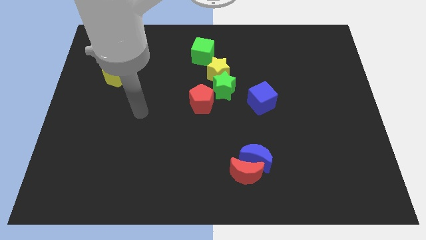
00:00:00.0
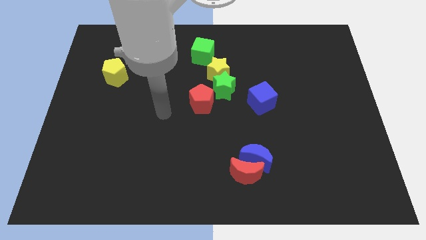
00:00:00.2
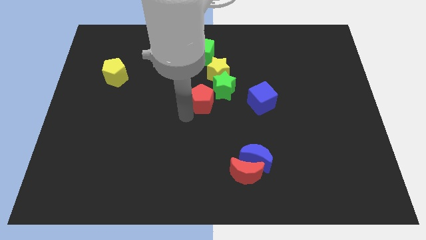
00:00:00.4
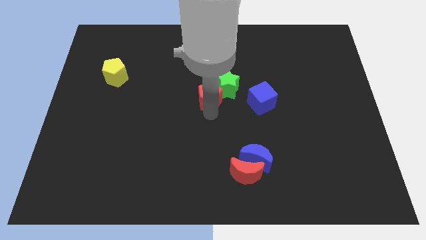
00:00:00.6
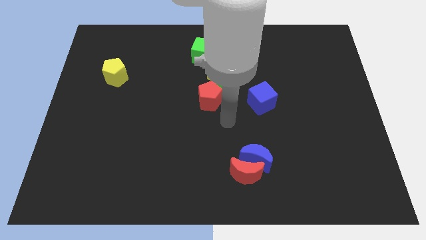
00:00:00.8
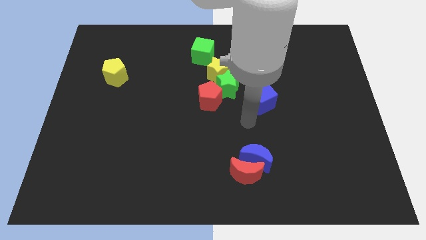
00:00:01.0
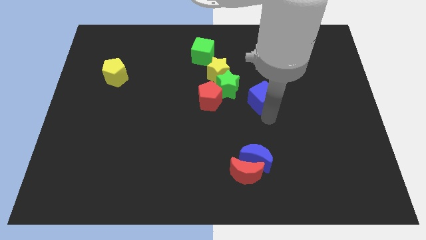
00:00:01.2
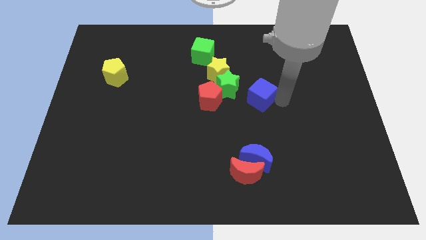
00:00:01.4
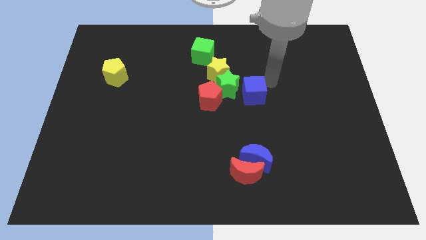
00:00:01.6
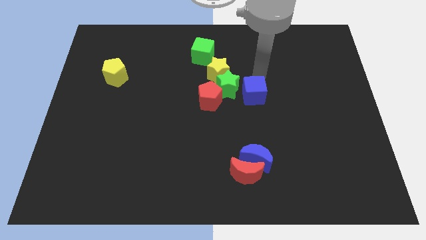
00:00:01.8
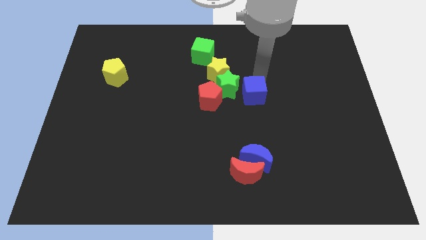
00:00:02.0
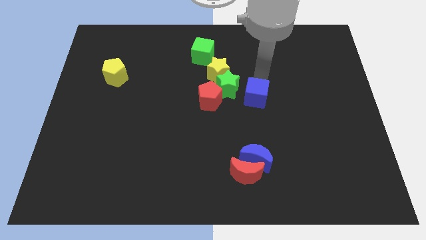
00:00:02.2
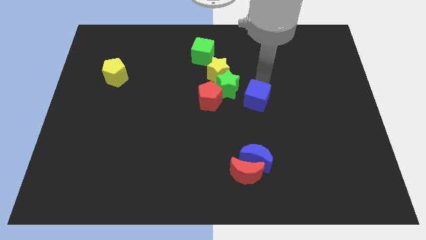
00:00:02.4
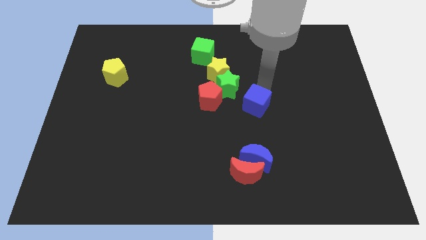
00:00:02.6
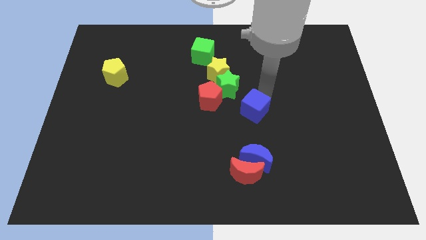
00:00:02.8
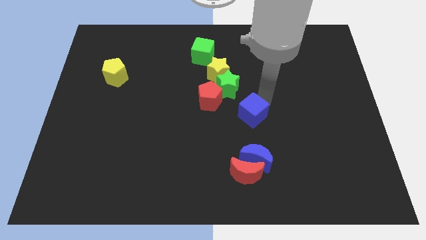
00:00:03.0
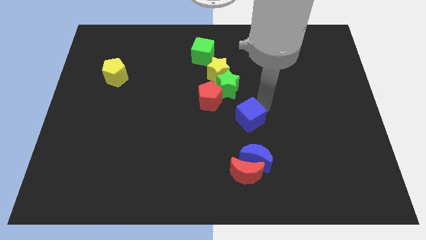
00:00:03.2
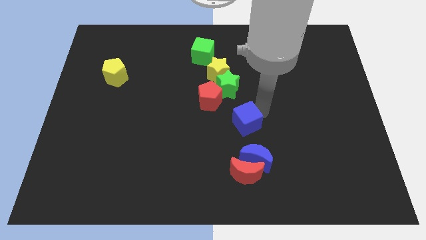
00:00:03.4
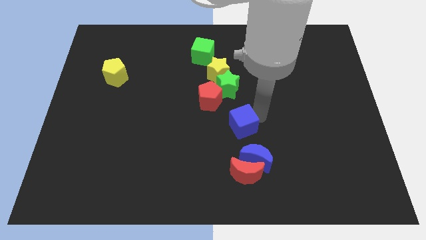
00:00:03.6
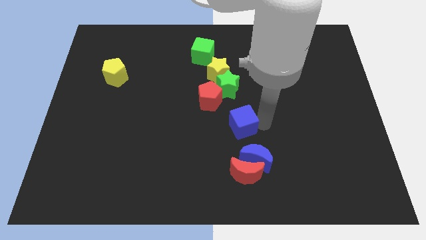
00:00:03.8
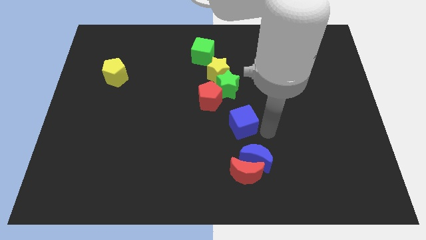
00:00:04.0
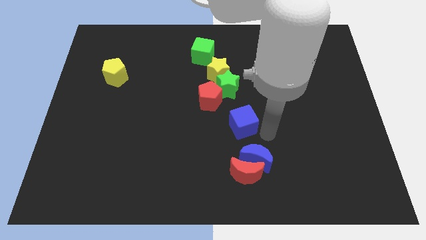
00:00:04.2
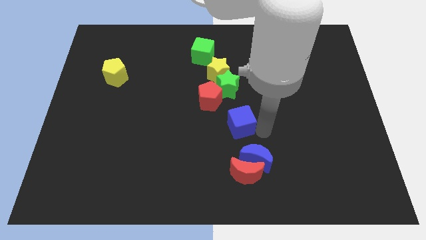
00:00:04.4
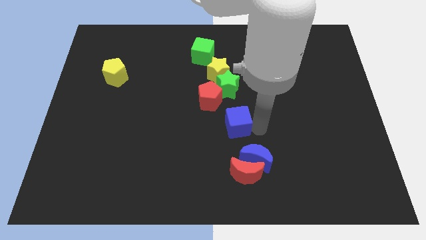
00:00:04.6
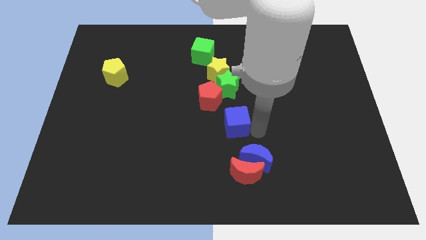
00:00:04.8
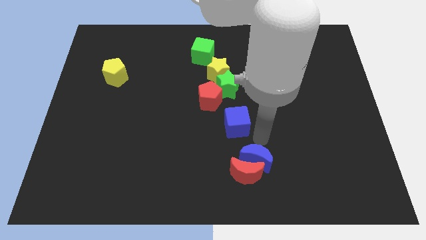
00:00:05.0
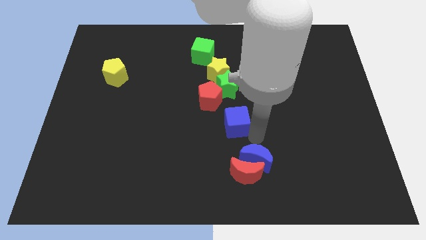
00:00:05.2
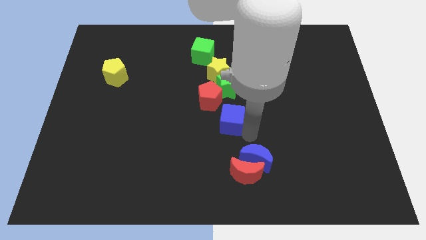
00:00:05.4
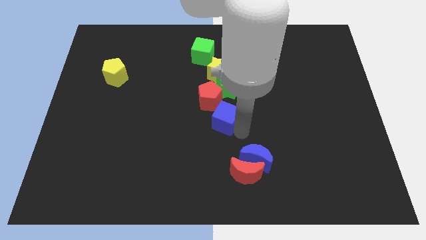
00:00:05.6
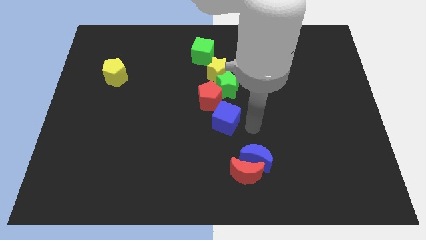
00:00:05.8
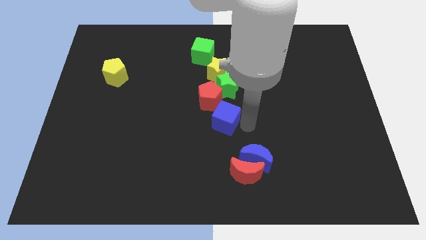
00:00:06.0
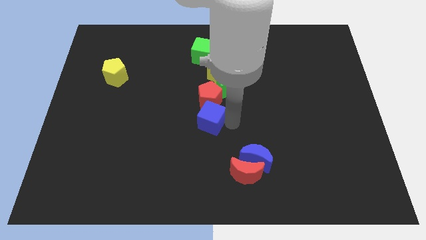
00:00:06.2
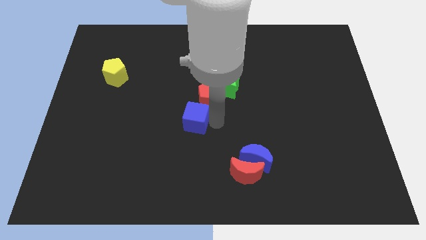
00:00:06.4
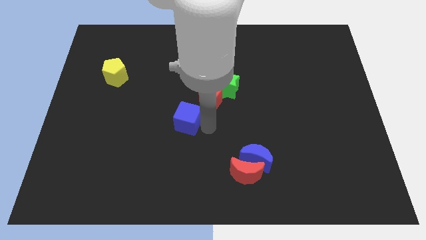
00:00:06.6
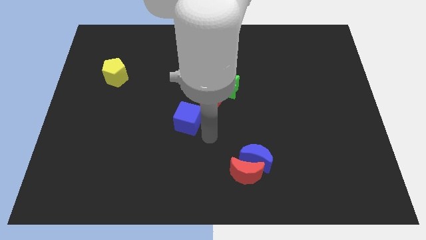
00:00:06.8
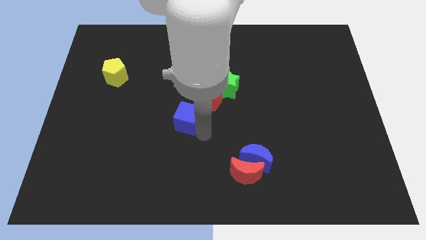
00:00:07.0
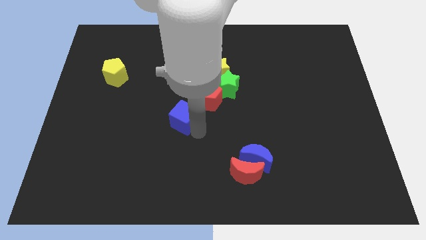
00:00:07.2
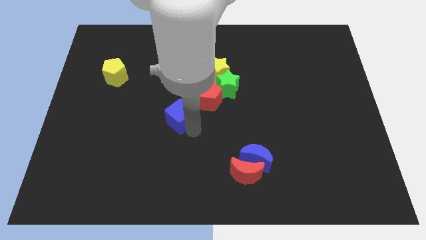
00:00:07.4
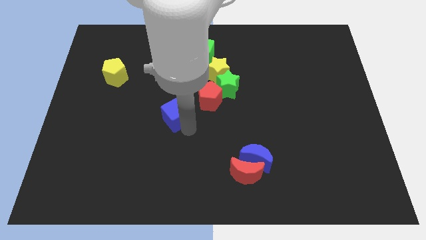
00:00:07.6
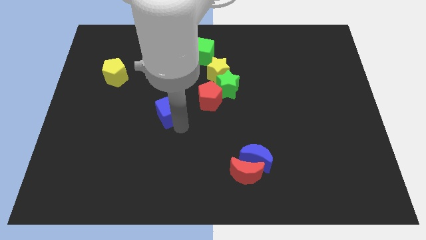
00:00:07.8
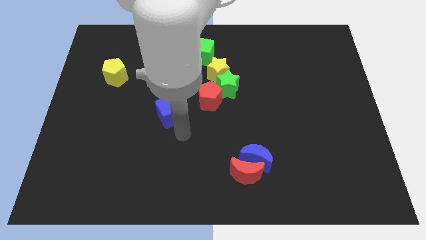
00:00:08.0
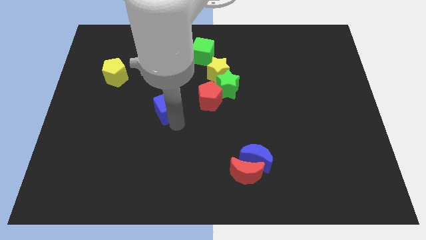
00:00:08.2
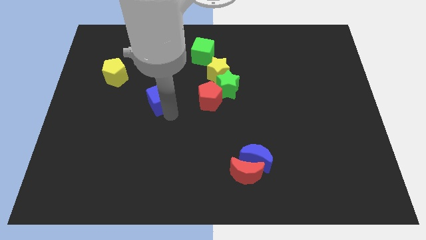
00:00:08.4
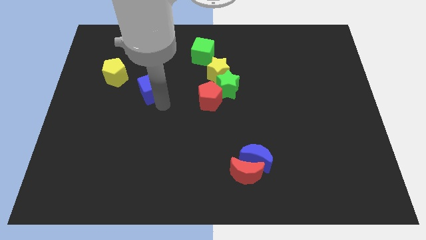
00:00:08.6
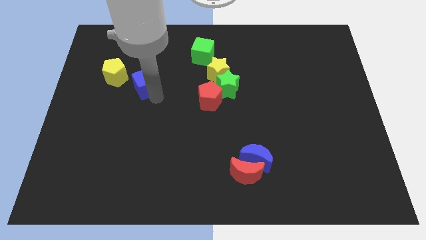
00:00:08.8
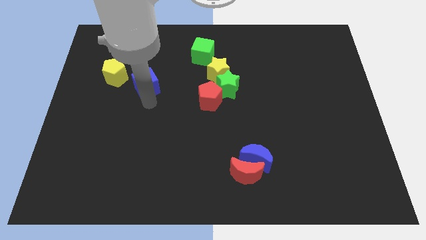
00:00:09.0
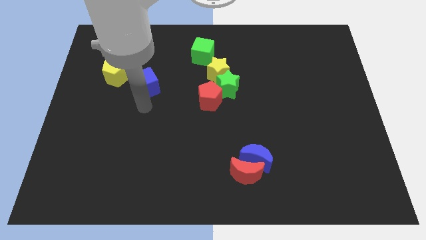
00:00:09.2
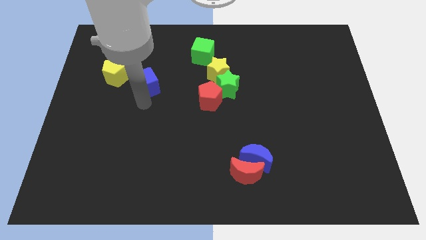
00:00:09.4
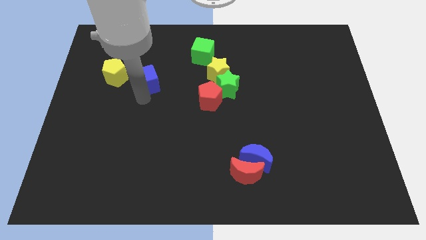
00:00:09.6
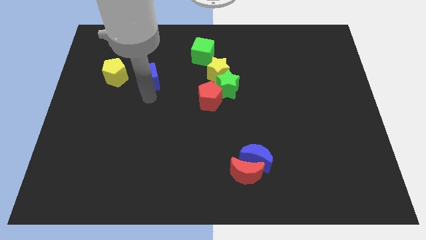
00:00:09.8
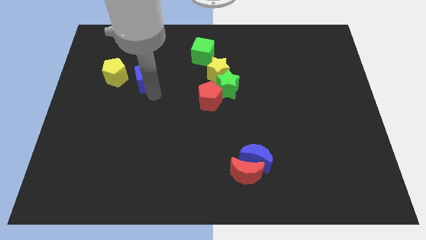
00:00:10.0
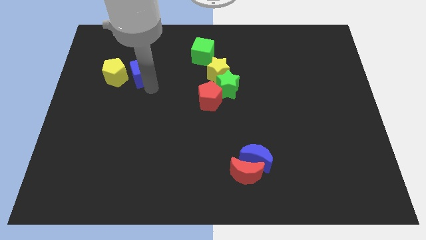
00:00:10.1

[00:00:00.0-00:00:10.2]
put the blue cube to the top right side of the yellow pentagon
